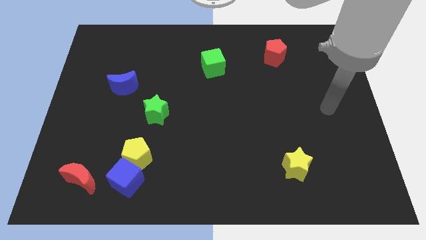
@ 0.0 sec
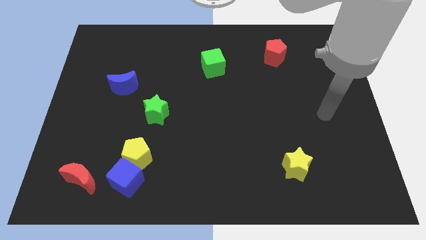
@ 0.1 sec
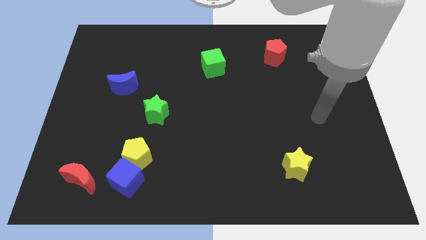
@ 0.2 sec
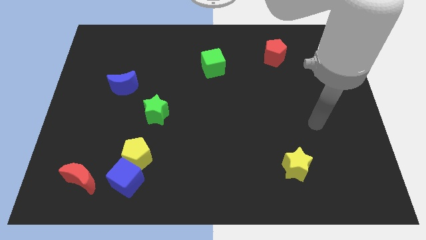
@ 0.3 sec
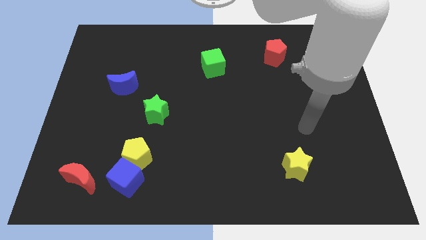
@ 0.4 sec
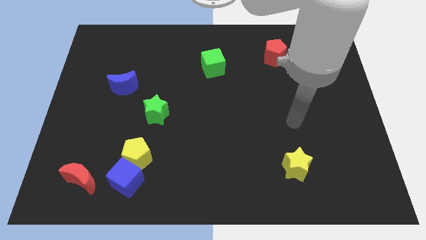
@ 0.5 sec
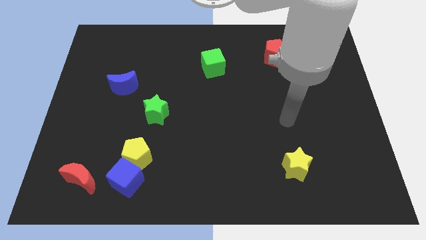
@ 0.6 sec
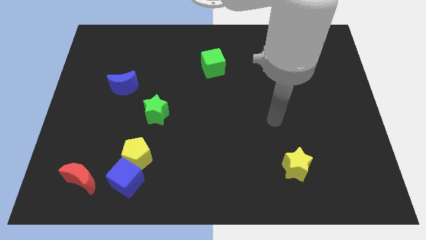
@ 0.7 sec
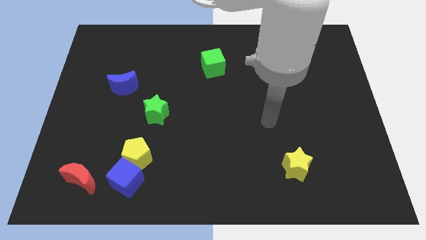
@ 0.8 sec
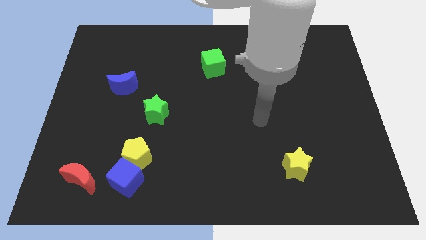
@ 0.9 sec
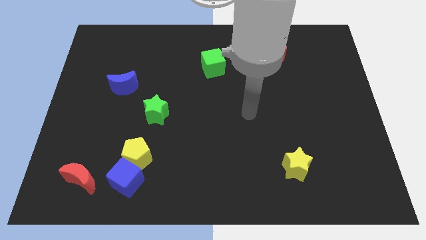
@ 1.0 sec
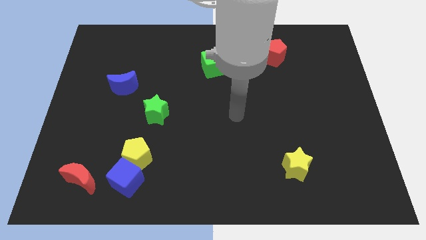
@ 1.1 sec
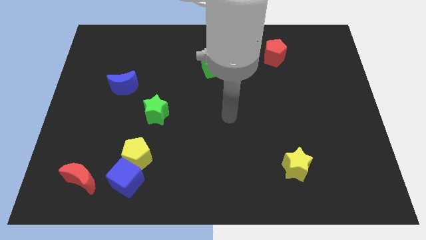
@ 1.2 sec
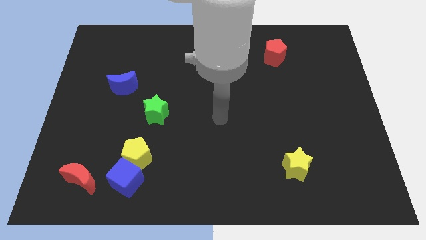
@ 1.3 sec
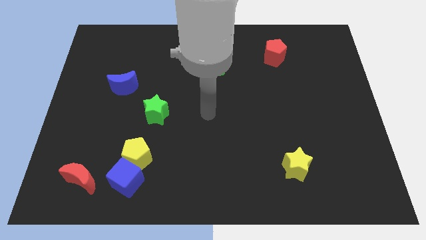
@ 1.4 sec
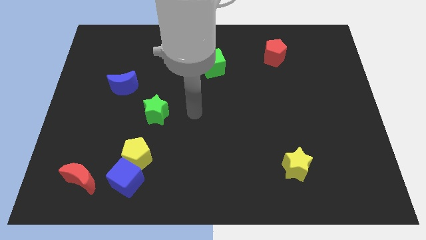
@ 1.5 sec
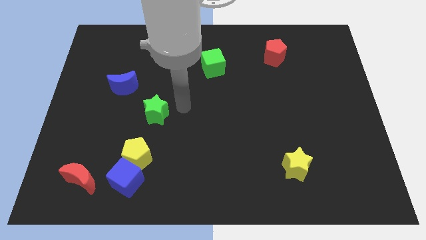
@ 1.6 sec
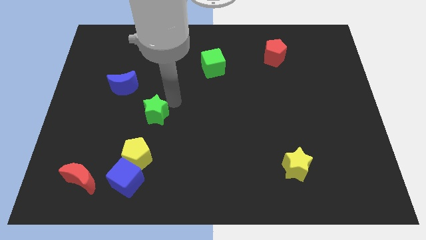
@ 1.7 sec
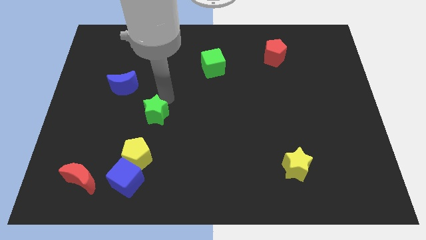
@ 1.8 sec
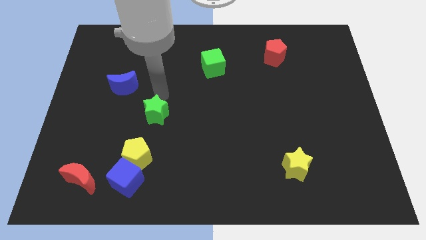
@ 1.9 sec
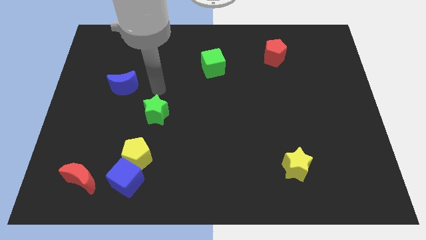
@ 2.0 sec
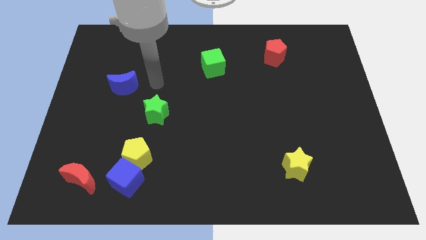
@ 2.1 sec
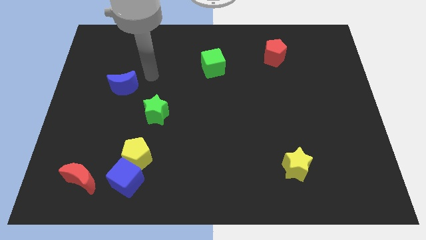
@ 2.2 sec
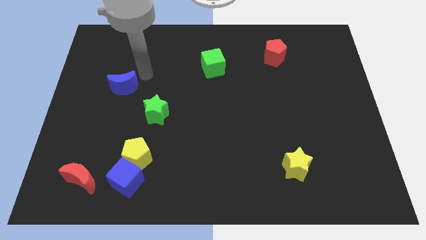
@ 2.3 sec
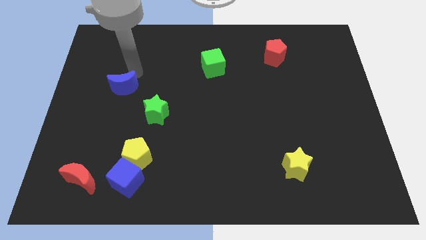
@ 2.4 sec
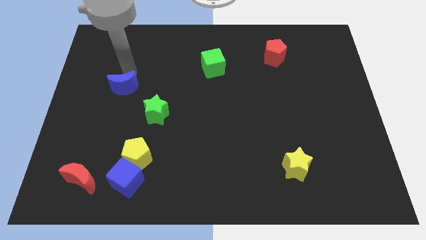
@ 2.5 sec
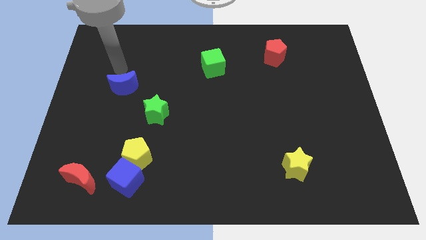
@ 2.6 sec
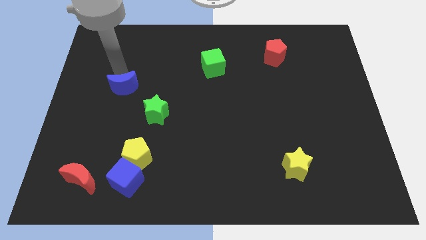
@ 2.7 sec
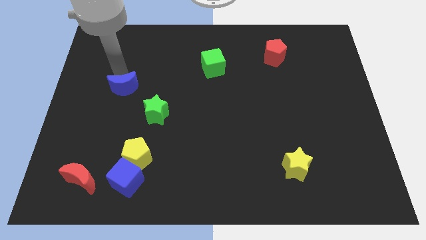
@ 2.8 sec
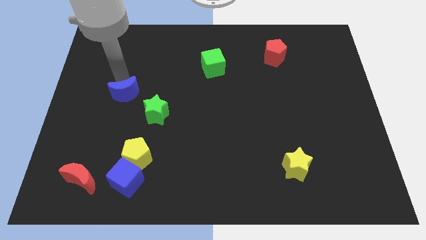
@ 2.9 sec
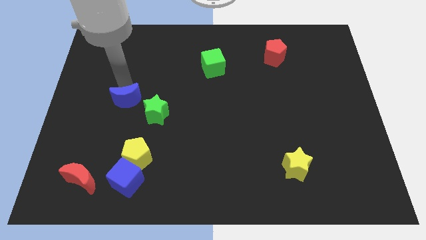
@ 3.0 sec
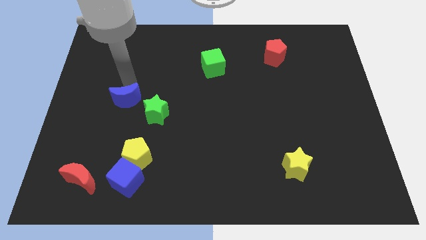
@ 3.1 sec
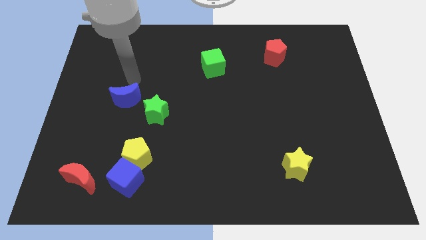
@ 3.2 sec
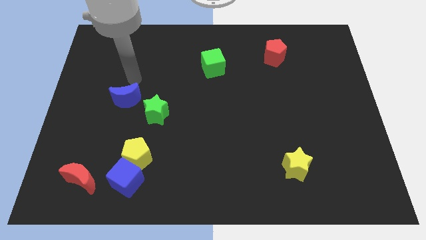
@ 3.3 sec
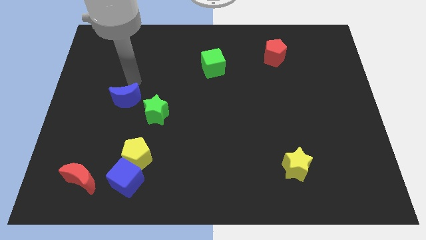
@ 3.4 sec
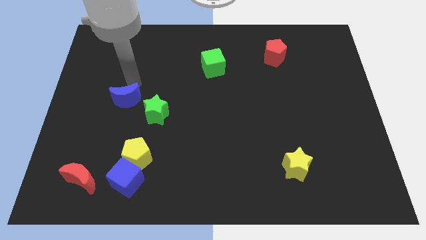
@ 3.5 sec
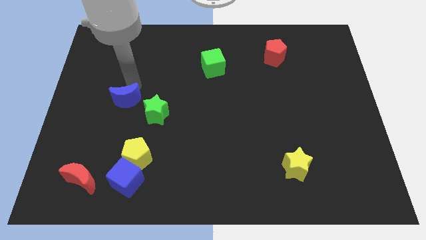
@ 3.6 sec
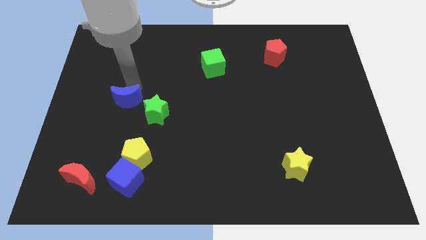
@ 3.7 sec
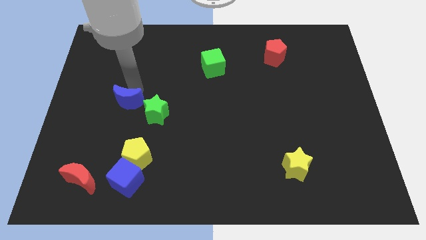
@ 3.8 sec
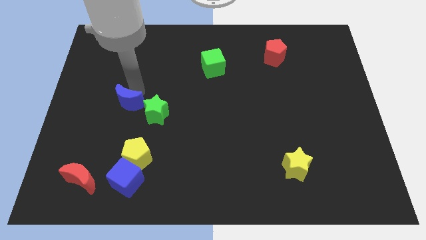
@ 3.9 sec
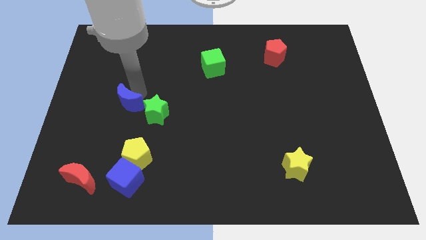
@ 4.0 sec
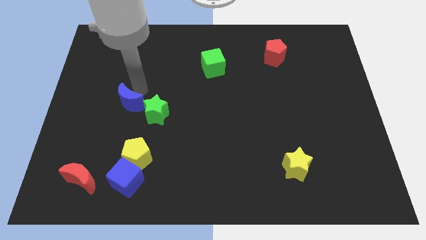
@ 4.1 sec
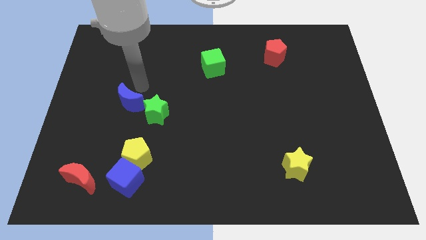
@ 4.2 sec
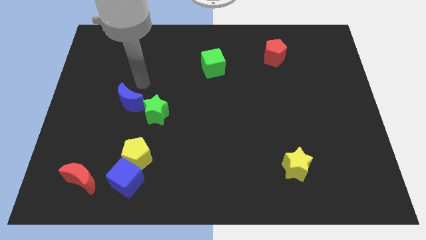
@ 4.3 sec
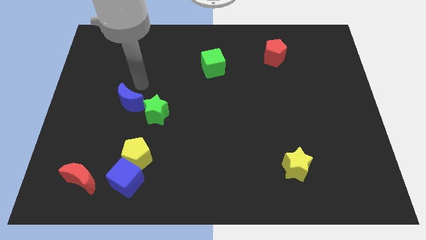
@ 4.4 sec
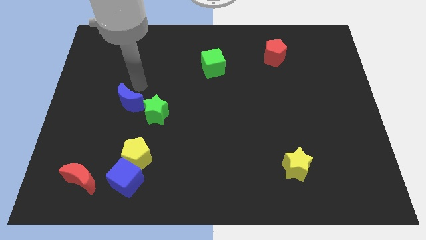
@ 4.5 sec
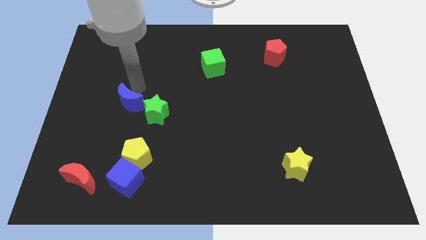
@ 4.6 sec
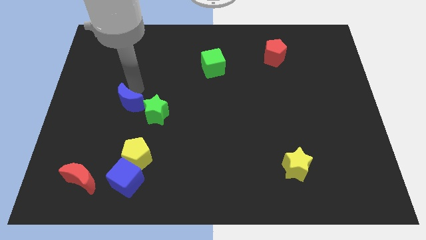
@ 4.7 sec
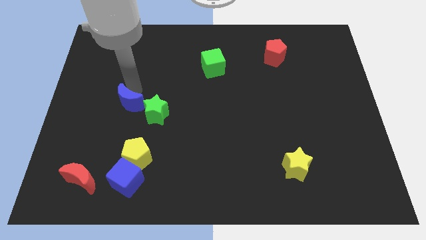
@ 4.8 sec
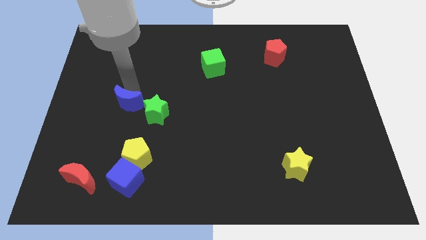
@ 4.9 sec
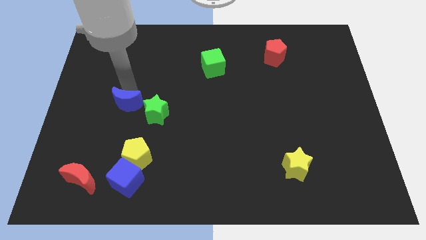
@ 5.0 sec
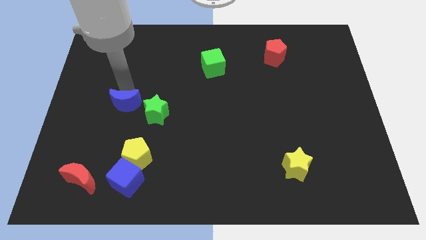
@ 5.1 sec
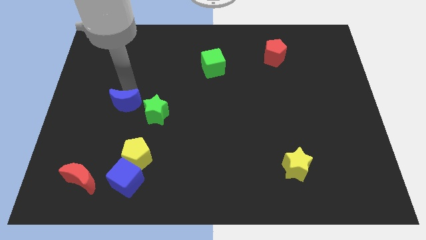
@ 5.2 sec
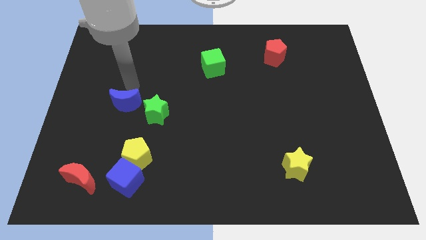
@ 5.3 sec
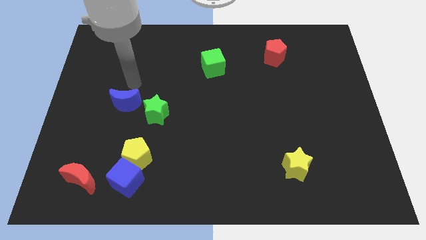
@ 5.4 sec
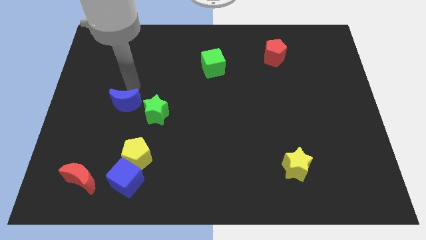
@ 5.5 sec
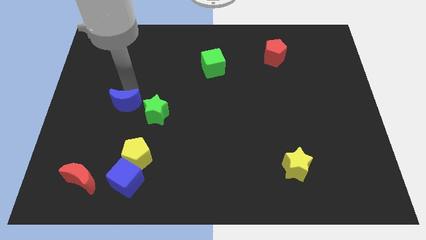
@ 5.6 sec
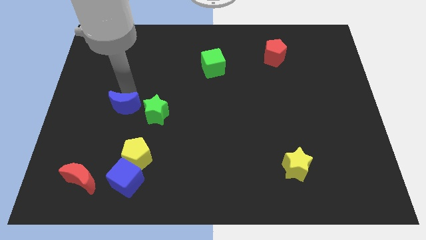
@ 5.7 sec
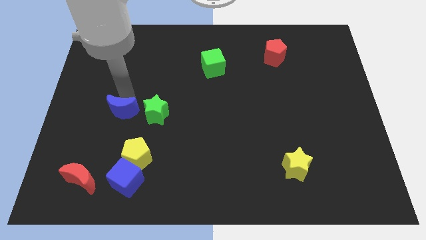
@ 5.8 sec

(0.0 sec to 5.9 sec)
move the blue moon a bit down

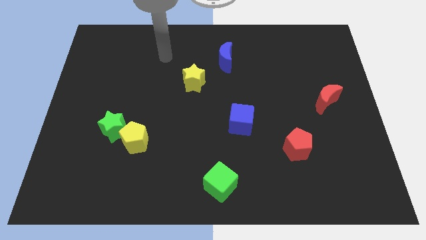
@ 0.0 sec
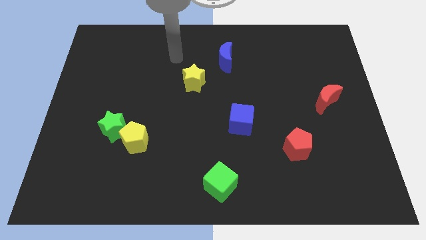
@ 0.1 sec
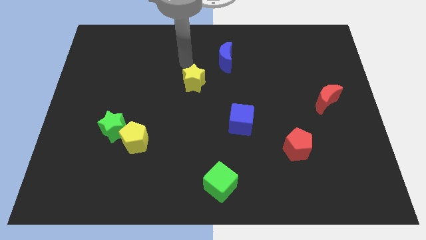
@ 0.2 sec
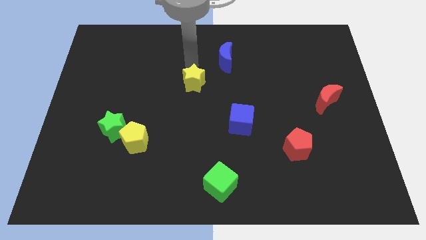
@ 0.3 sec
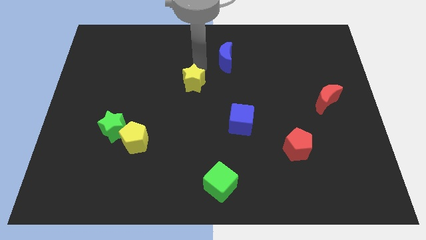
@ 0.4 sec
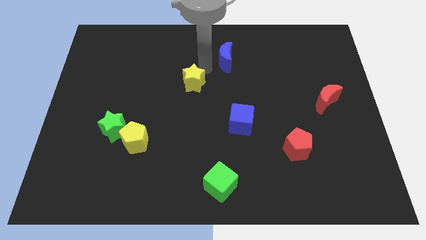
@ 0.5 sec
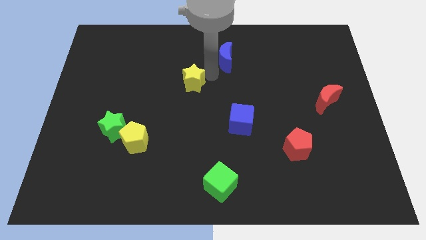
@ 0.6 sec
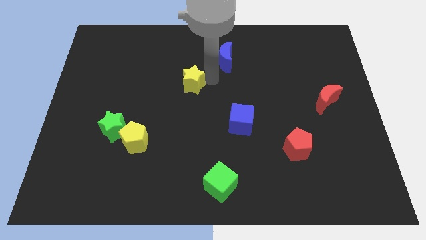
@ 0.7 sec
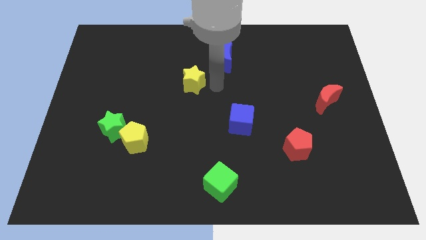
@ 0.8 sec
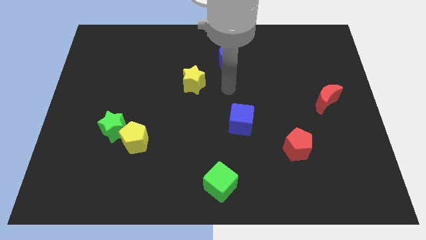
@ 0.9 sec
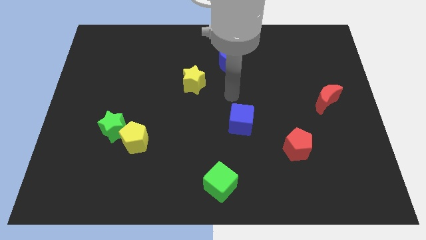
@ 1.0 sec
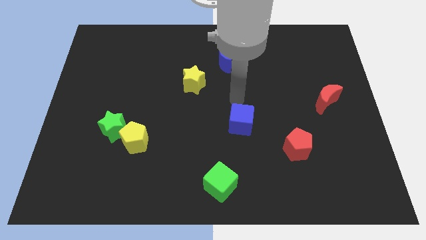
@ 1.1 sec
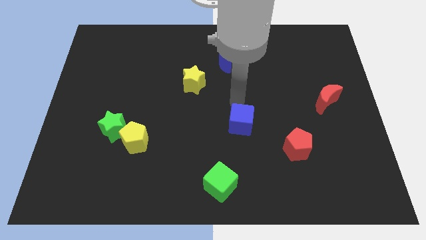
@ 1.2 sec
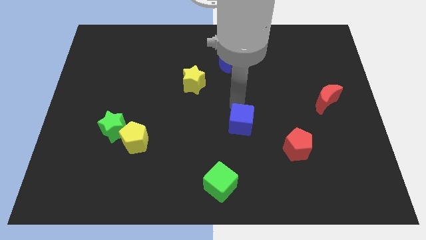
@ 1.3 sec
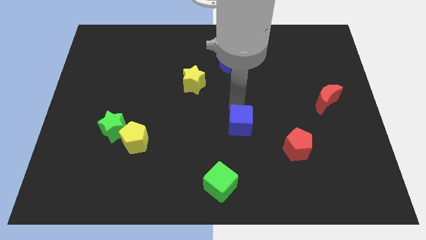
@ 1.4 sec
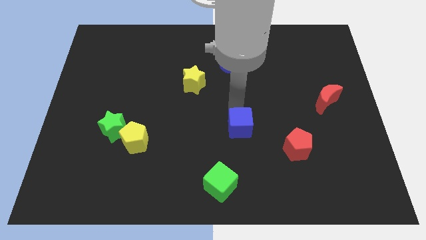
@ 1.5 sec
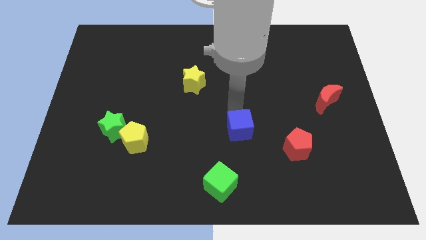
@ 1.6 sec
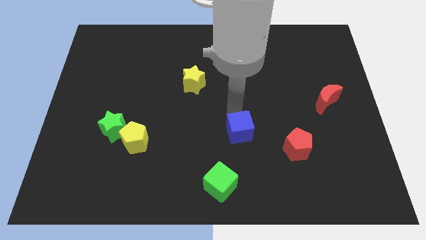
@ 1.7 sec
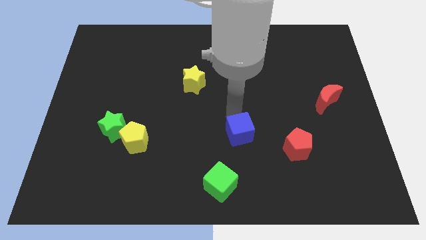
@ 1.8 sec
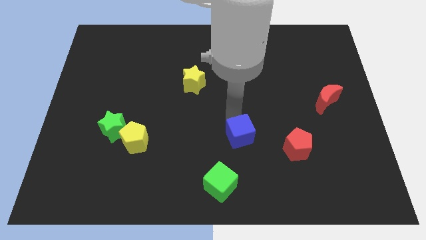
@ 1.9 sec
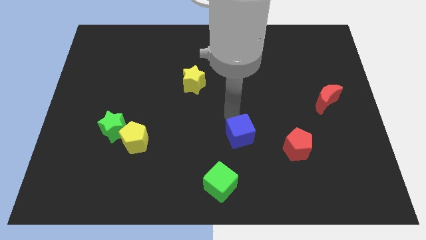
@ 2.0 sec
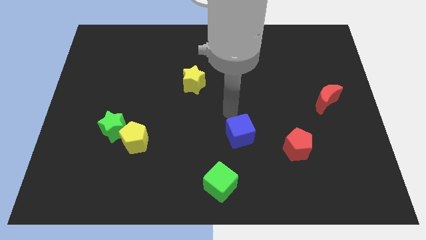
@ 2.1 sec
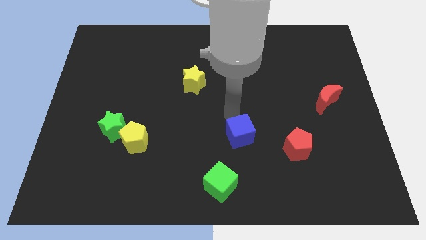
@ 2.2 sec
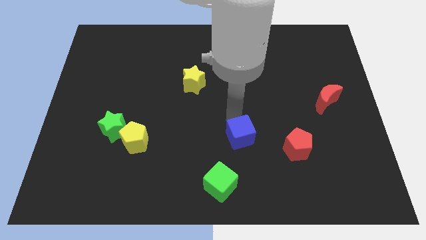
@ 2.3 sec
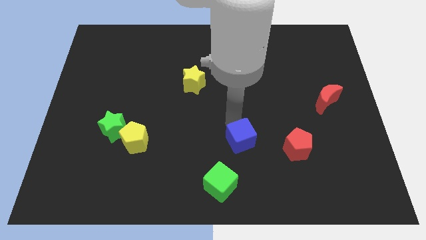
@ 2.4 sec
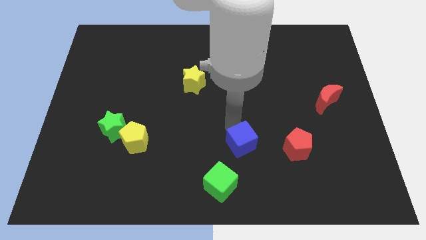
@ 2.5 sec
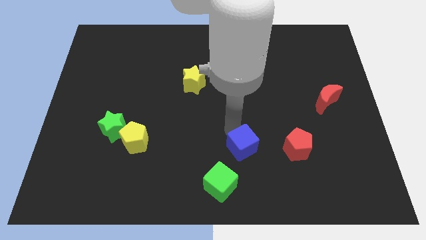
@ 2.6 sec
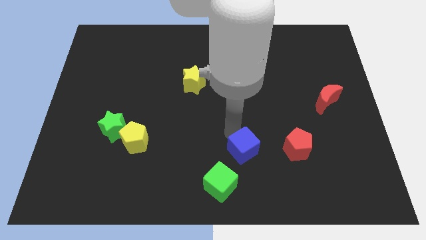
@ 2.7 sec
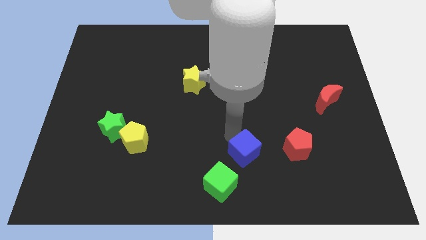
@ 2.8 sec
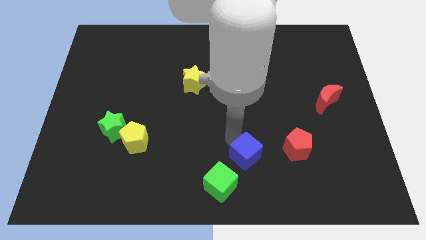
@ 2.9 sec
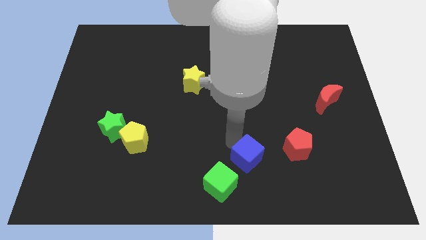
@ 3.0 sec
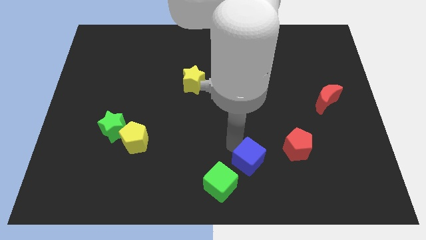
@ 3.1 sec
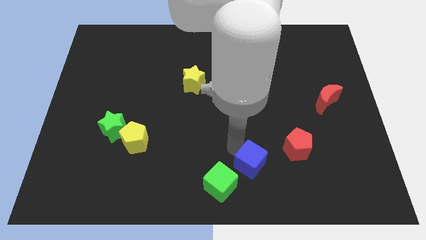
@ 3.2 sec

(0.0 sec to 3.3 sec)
slightly push the blue cube down and then to the right
